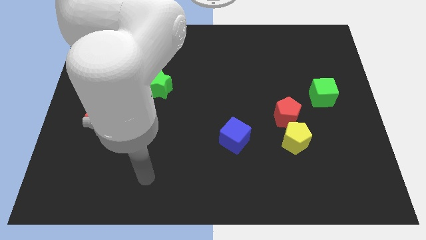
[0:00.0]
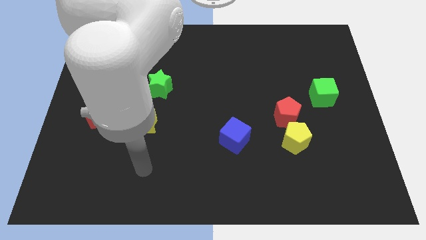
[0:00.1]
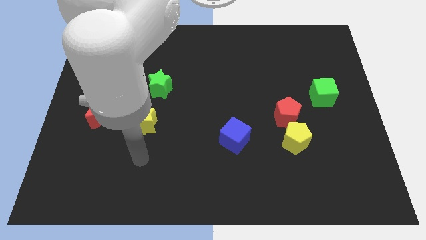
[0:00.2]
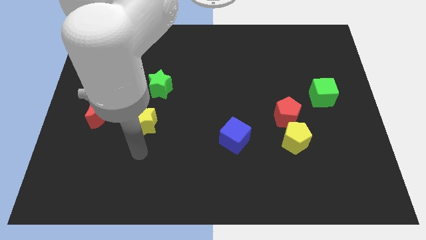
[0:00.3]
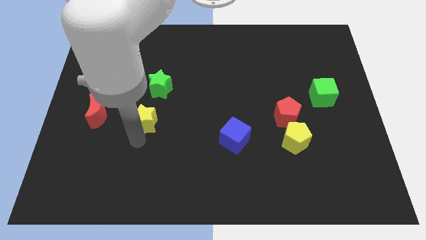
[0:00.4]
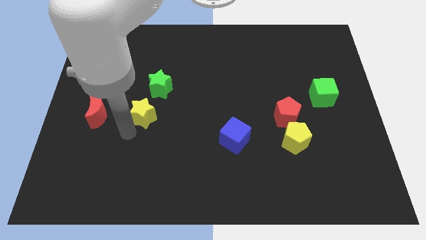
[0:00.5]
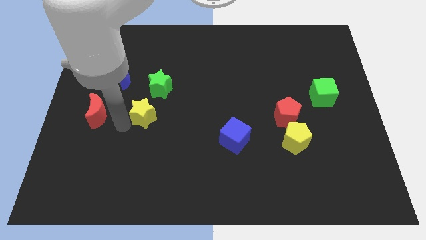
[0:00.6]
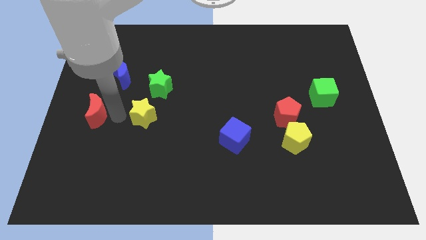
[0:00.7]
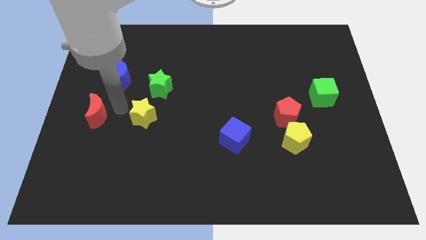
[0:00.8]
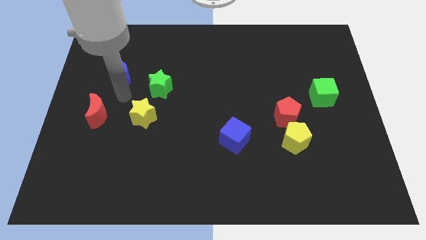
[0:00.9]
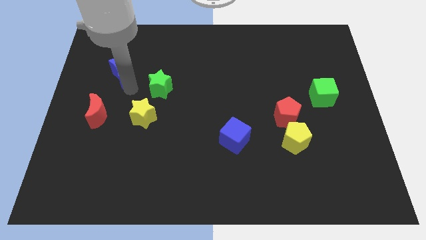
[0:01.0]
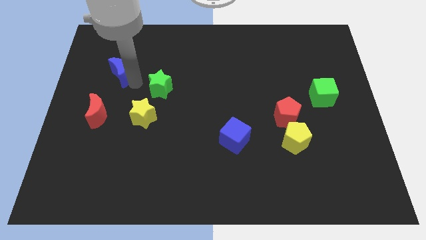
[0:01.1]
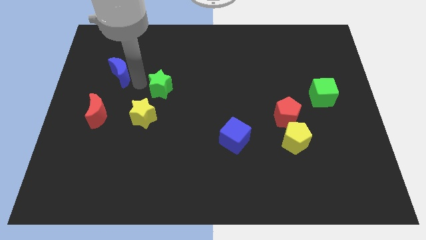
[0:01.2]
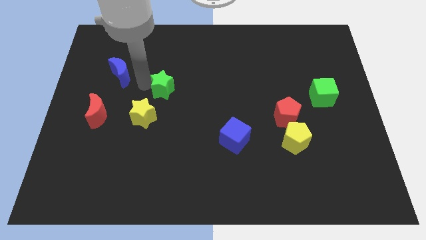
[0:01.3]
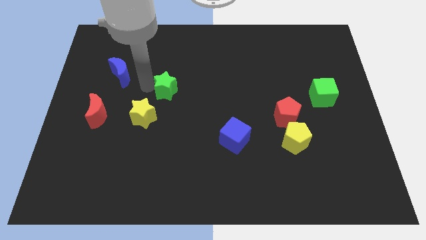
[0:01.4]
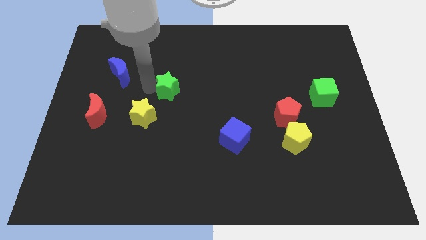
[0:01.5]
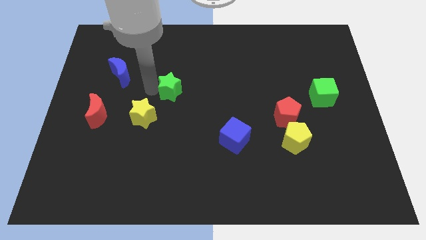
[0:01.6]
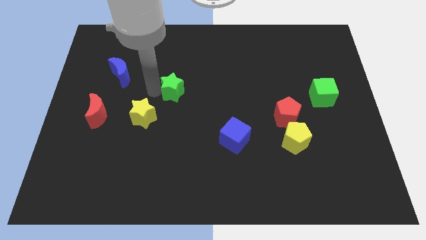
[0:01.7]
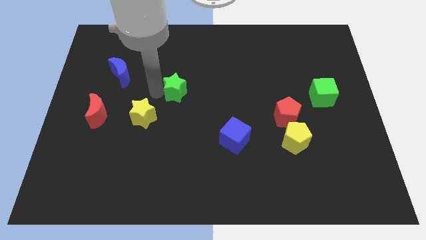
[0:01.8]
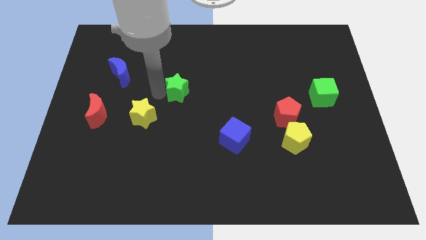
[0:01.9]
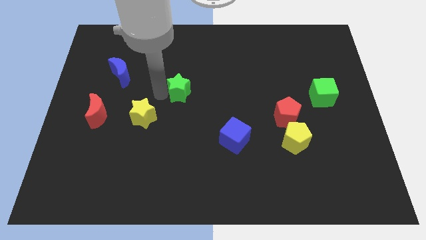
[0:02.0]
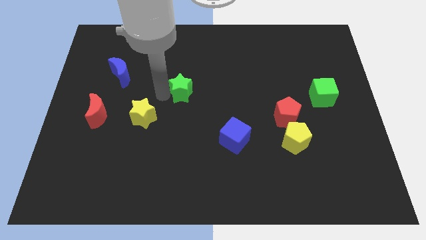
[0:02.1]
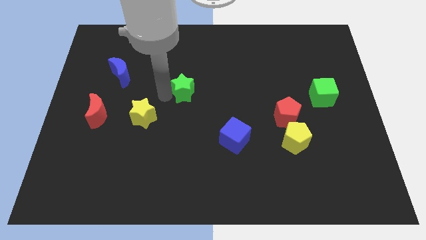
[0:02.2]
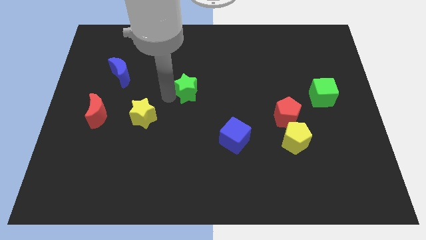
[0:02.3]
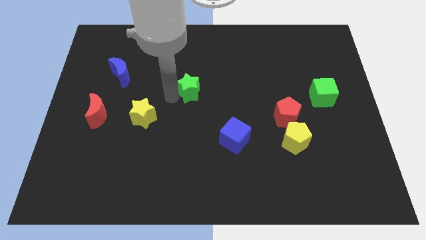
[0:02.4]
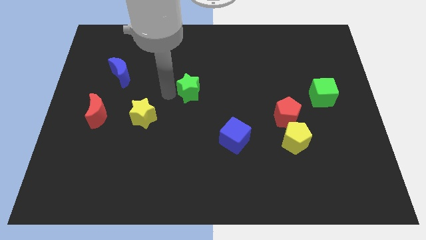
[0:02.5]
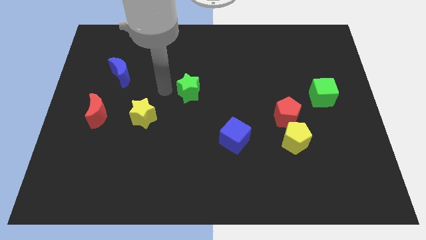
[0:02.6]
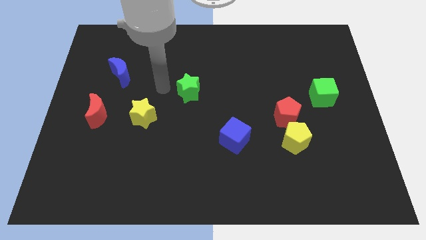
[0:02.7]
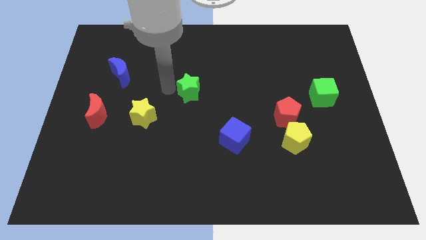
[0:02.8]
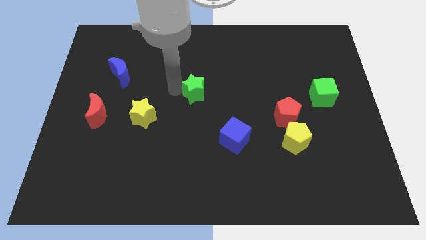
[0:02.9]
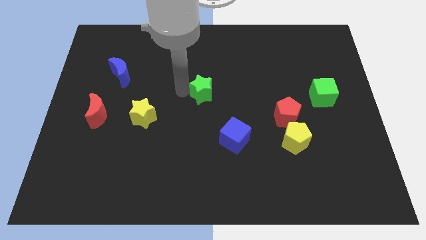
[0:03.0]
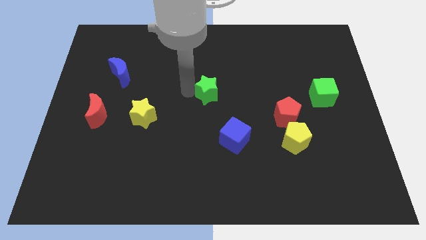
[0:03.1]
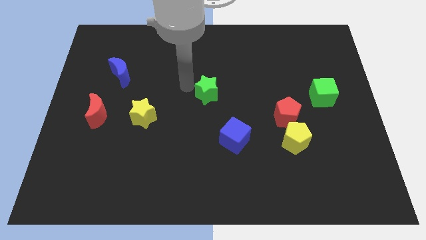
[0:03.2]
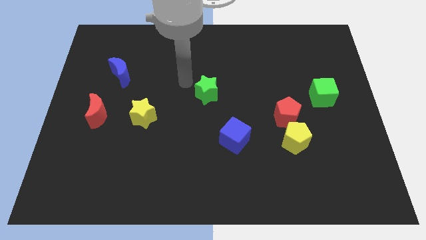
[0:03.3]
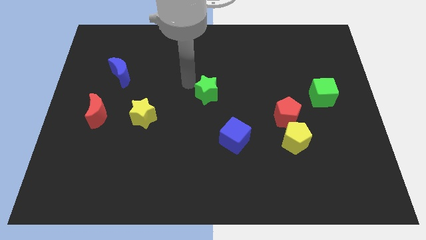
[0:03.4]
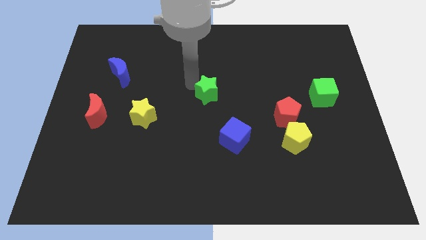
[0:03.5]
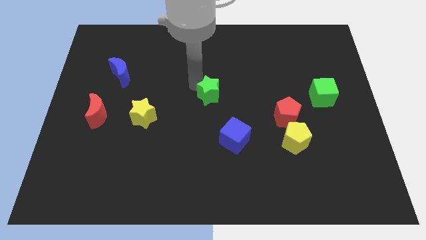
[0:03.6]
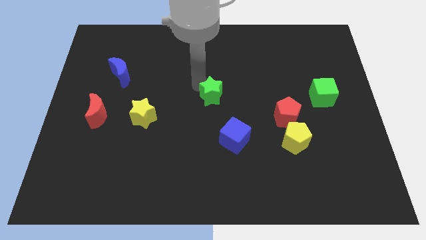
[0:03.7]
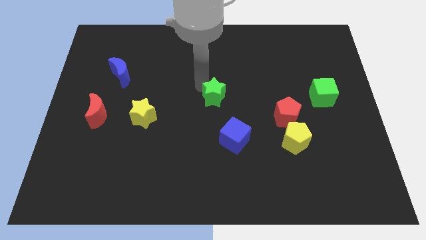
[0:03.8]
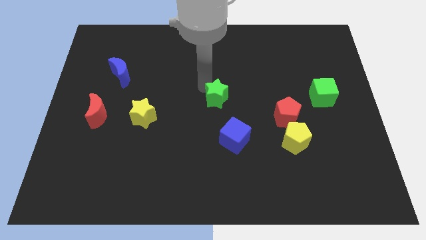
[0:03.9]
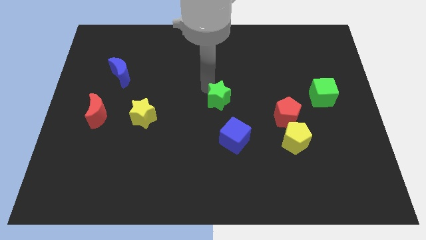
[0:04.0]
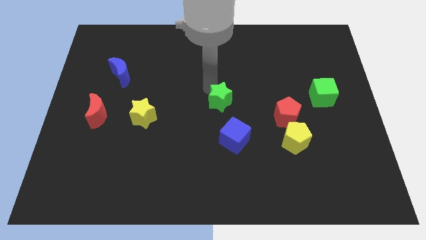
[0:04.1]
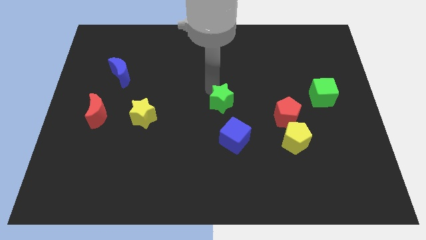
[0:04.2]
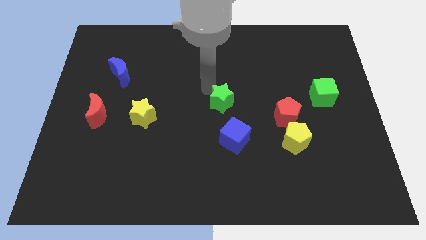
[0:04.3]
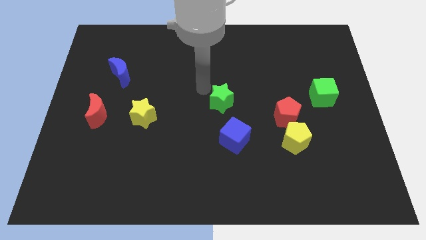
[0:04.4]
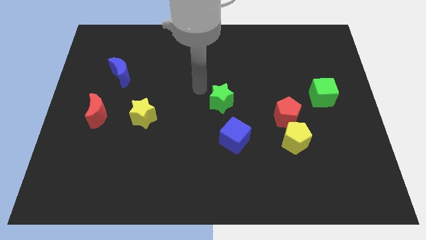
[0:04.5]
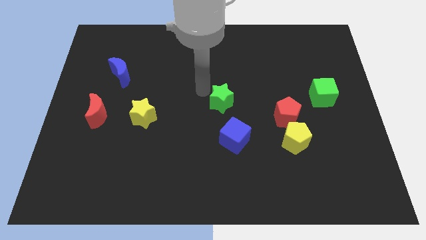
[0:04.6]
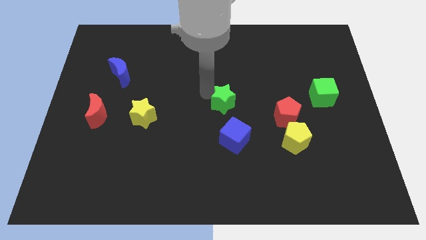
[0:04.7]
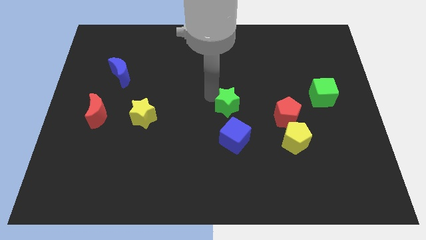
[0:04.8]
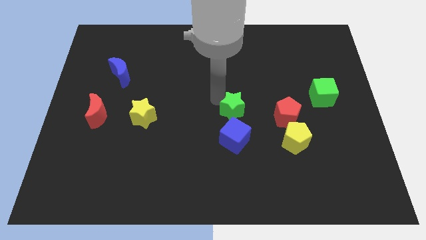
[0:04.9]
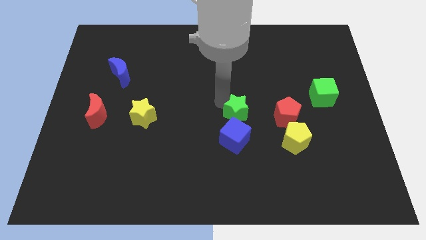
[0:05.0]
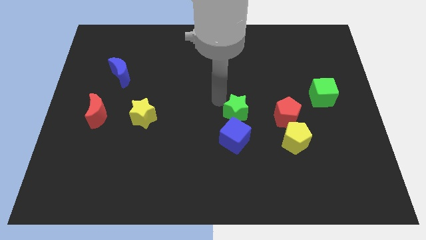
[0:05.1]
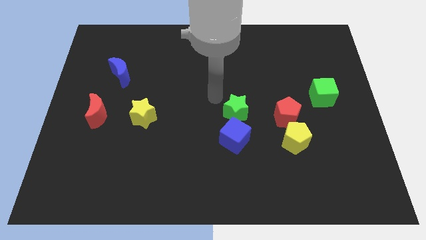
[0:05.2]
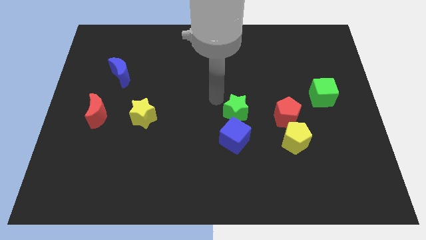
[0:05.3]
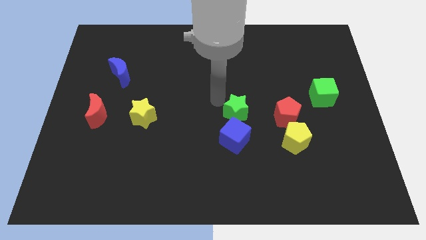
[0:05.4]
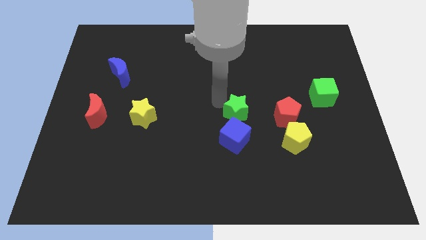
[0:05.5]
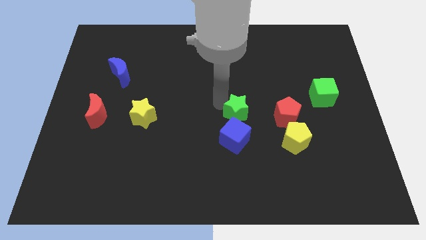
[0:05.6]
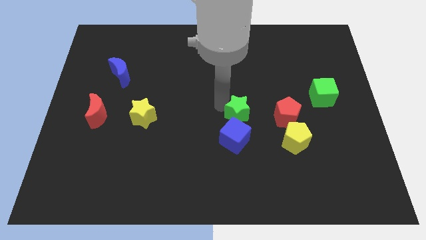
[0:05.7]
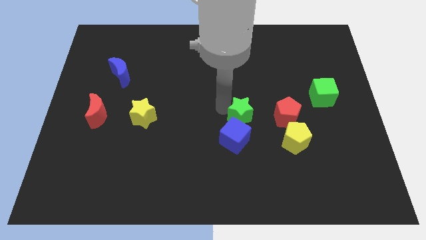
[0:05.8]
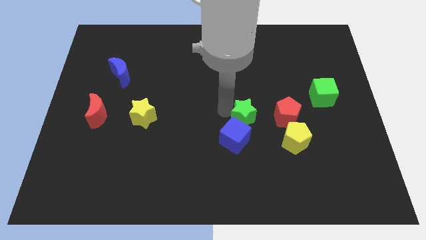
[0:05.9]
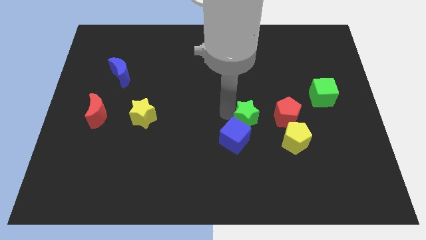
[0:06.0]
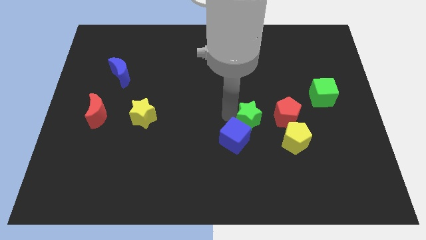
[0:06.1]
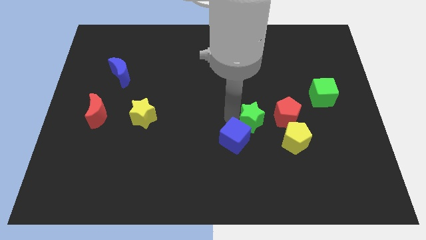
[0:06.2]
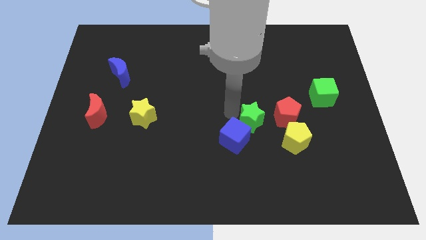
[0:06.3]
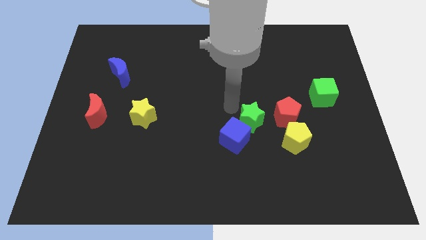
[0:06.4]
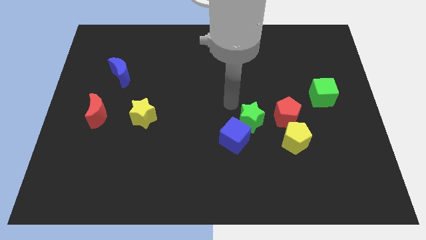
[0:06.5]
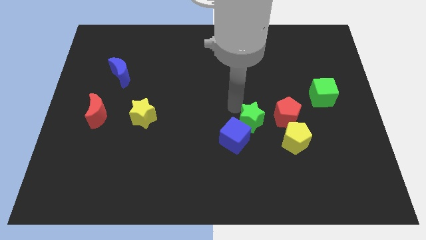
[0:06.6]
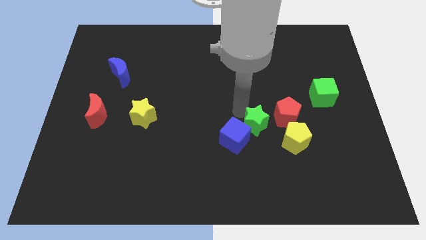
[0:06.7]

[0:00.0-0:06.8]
slide the green star to the bottom left side of the red pentagon
